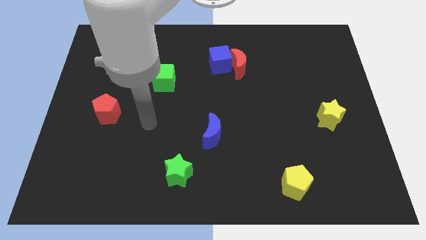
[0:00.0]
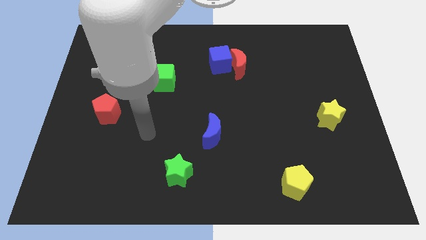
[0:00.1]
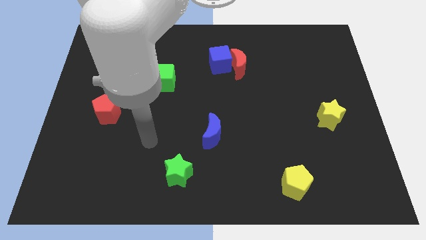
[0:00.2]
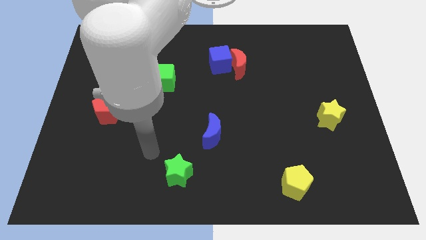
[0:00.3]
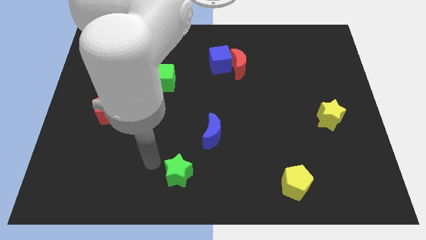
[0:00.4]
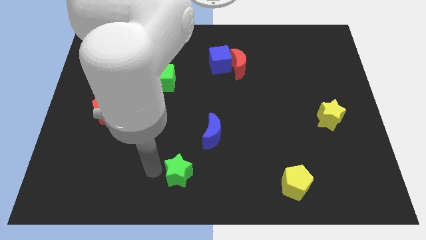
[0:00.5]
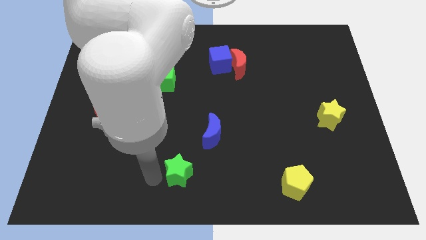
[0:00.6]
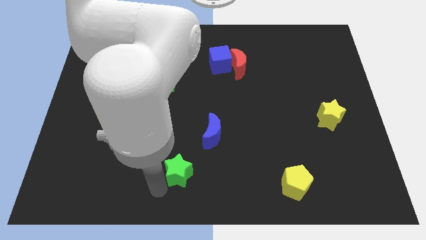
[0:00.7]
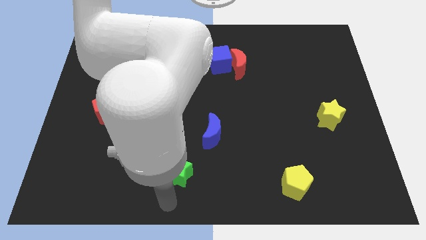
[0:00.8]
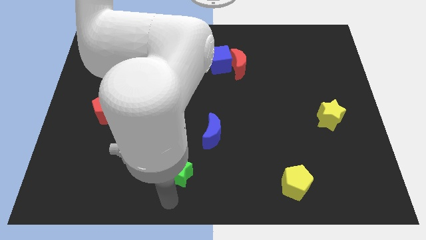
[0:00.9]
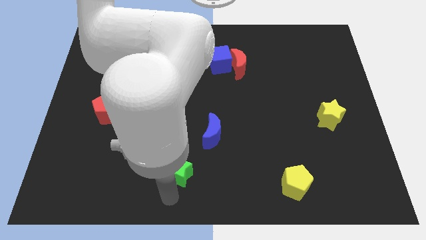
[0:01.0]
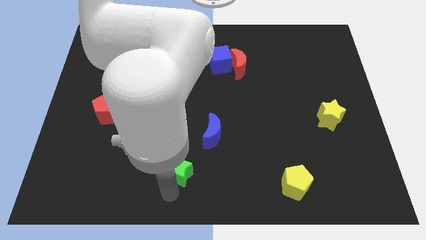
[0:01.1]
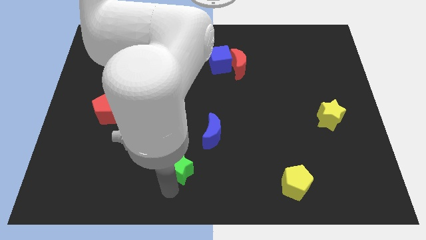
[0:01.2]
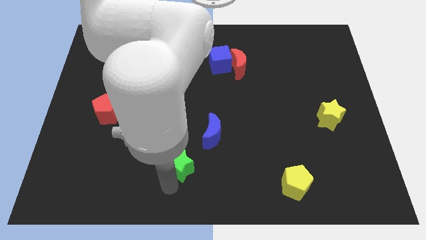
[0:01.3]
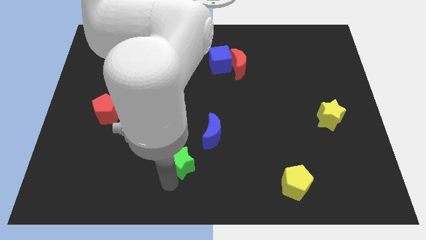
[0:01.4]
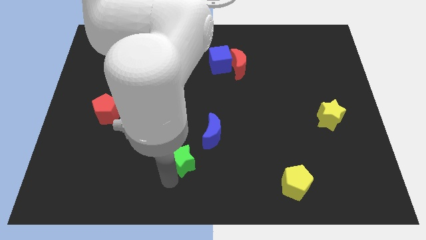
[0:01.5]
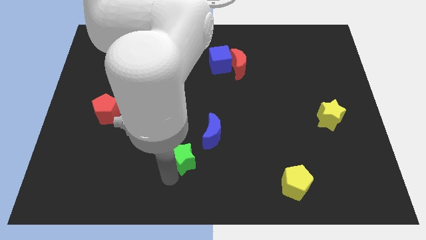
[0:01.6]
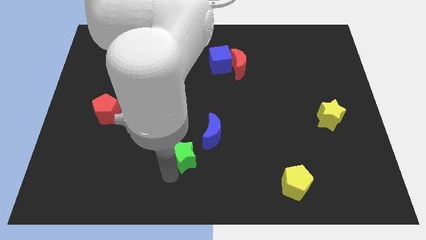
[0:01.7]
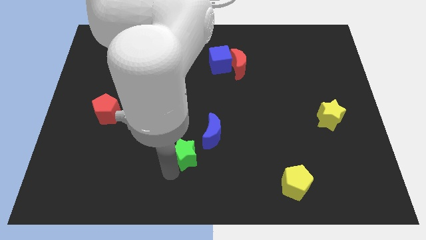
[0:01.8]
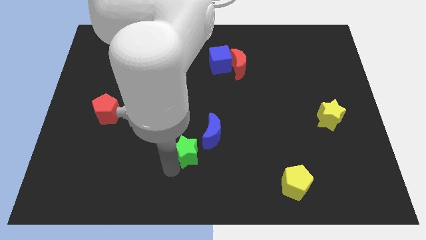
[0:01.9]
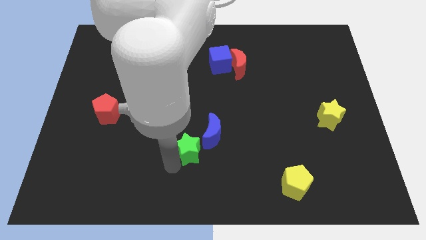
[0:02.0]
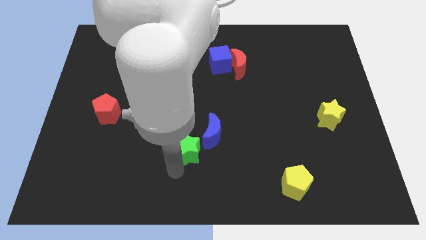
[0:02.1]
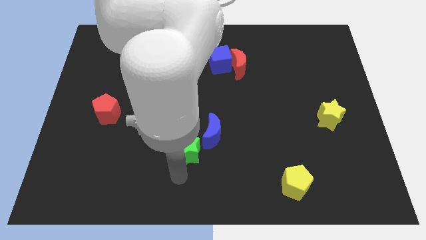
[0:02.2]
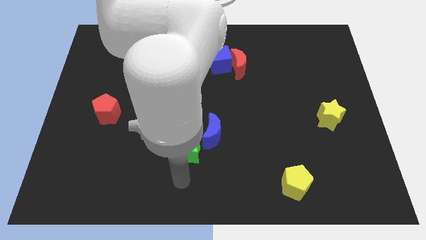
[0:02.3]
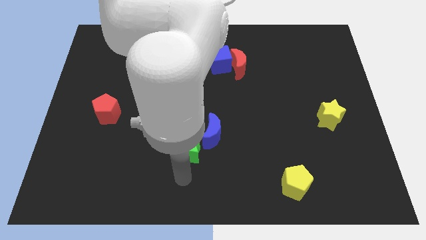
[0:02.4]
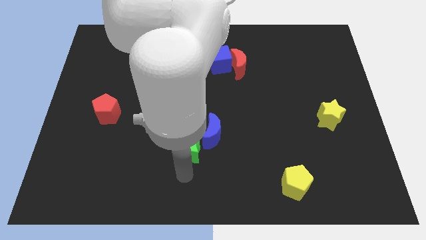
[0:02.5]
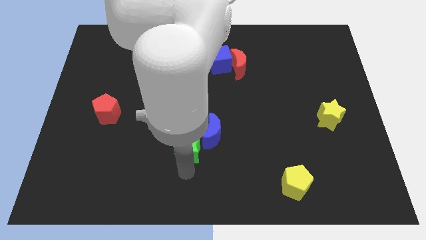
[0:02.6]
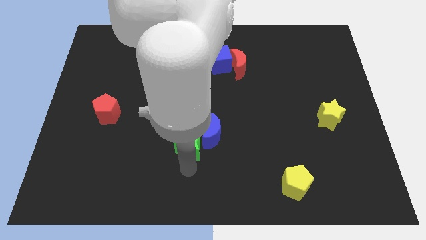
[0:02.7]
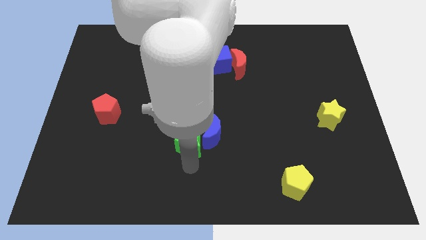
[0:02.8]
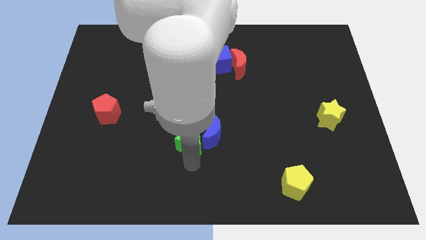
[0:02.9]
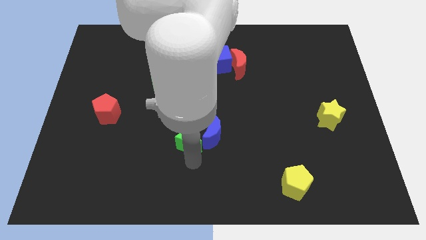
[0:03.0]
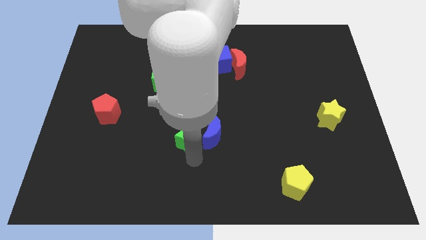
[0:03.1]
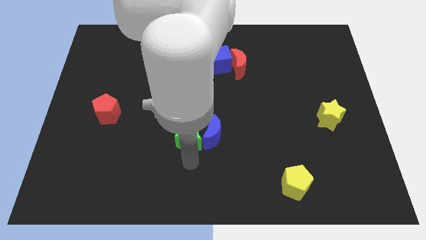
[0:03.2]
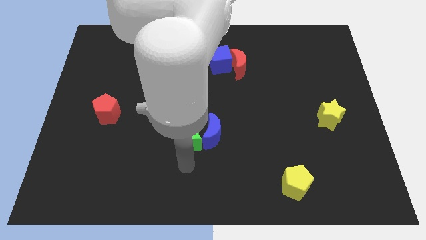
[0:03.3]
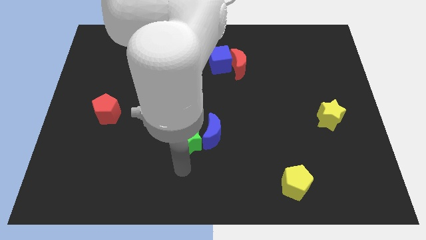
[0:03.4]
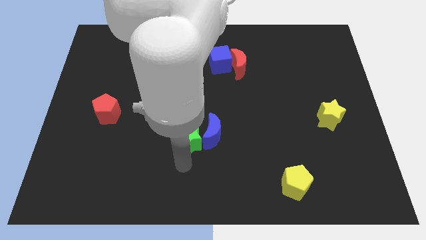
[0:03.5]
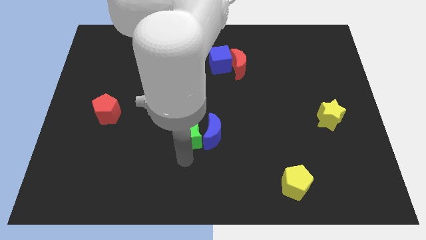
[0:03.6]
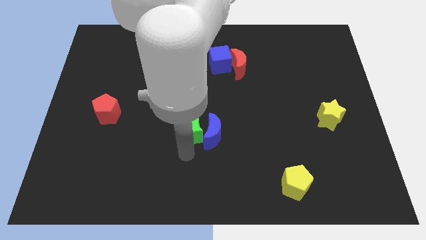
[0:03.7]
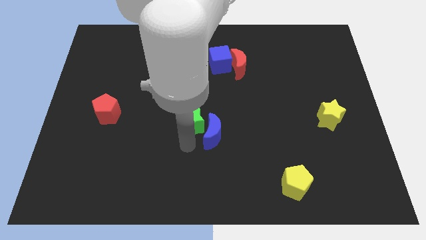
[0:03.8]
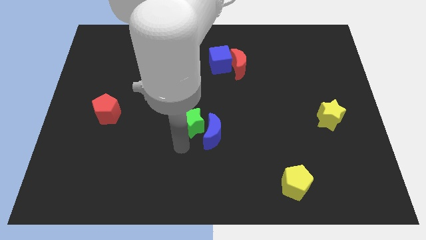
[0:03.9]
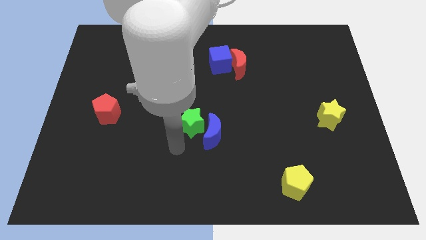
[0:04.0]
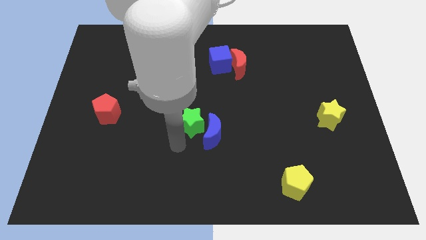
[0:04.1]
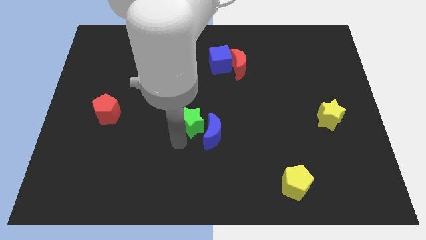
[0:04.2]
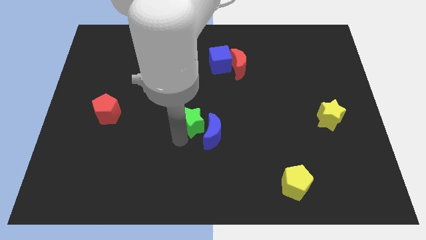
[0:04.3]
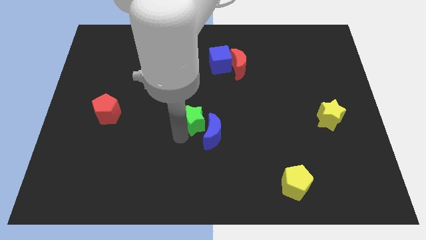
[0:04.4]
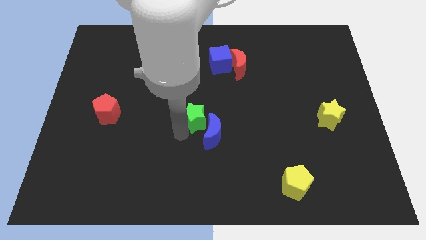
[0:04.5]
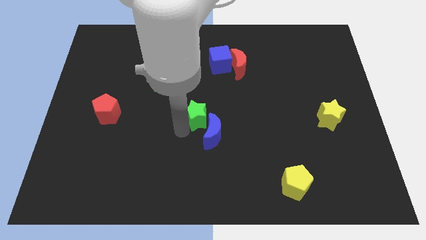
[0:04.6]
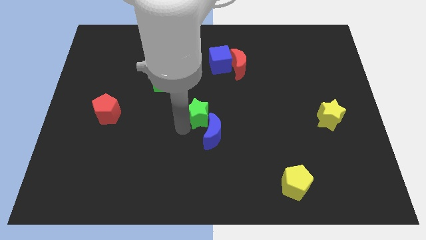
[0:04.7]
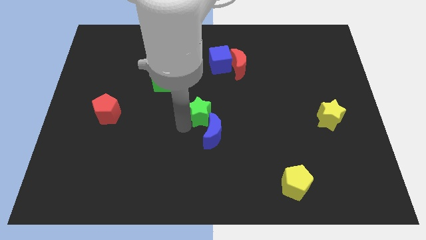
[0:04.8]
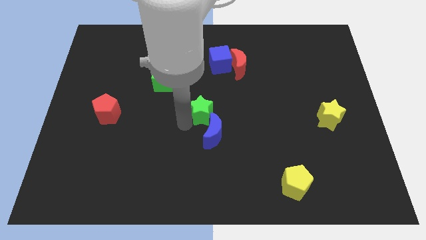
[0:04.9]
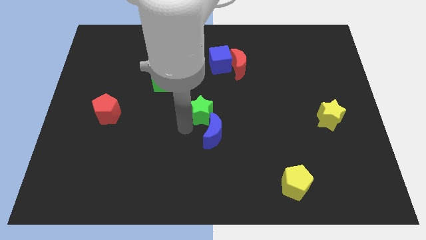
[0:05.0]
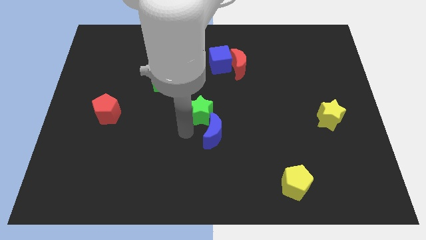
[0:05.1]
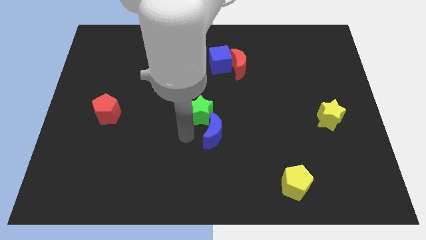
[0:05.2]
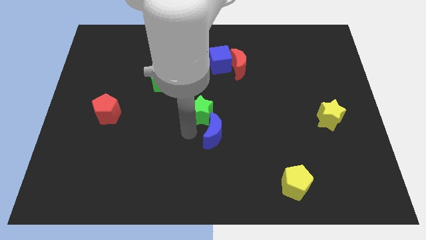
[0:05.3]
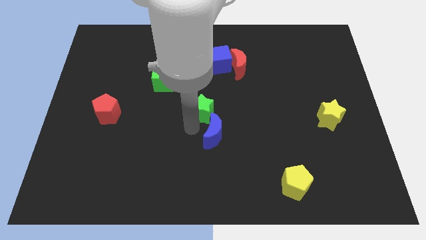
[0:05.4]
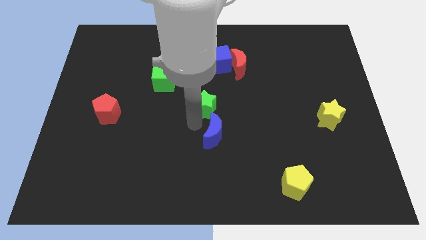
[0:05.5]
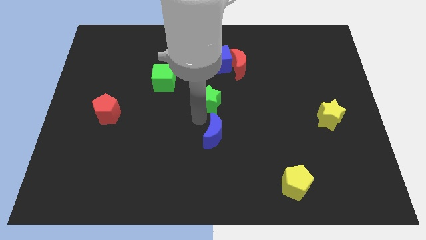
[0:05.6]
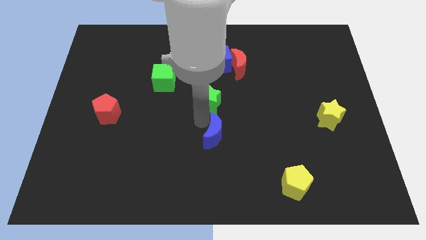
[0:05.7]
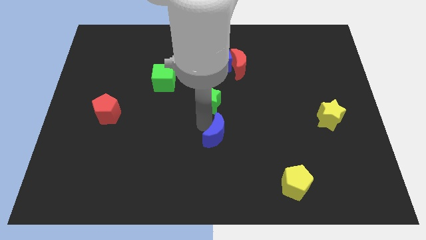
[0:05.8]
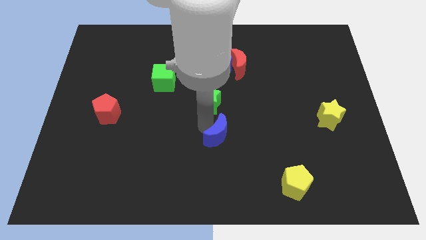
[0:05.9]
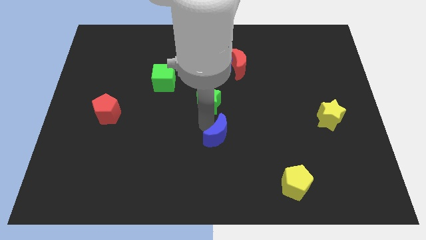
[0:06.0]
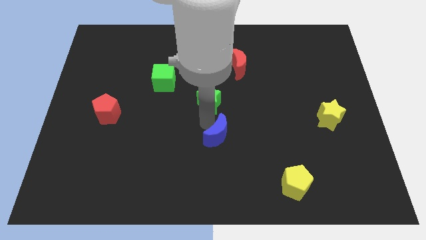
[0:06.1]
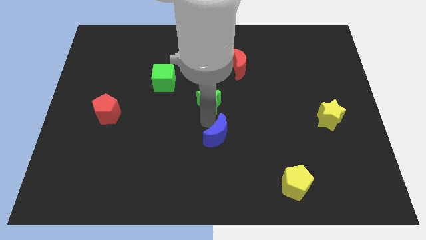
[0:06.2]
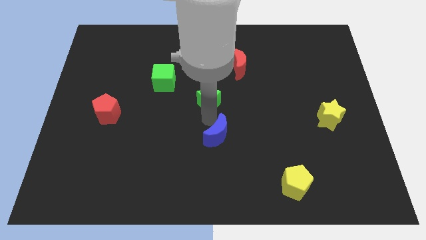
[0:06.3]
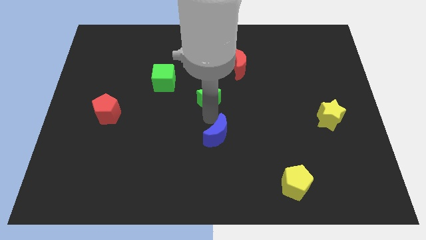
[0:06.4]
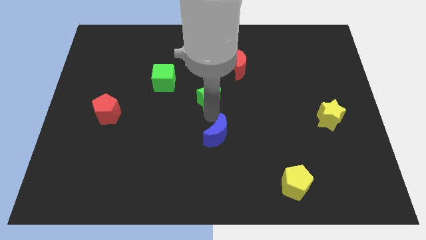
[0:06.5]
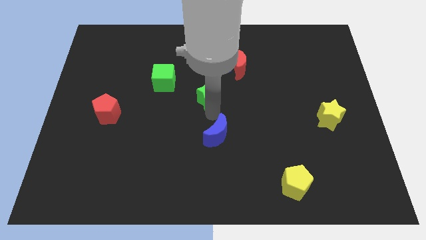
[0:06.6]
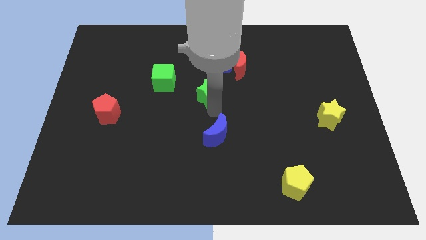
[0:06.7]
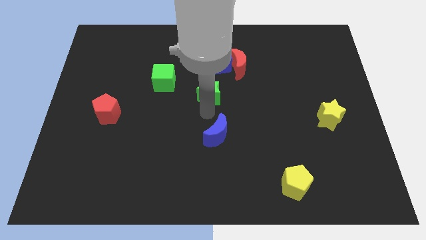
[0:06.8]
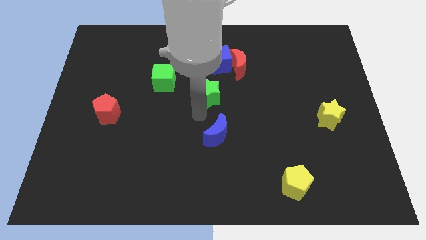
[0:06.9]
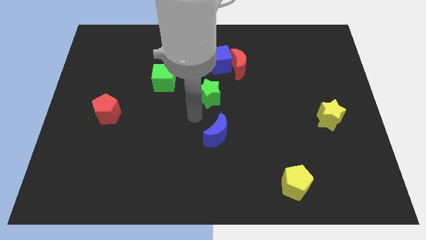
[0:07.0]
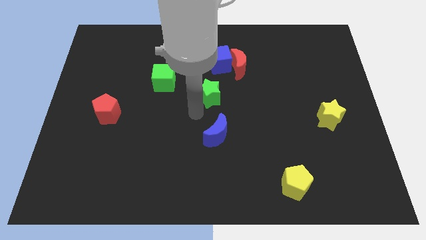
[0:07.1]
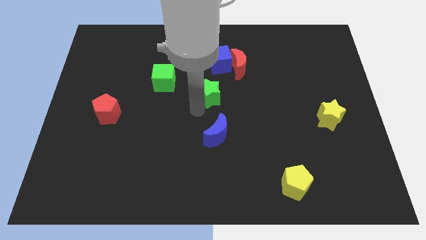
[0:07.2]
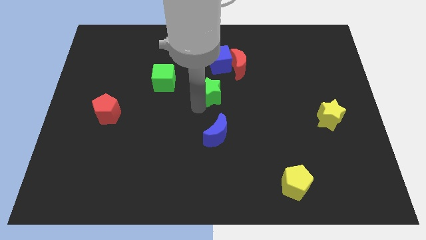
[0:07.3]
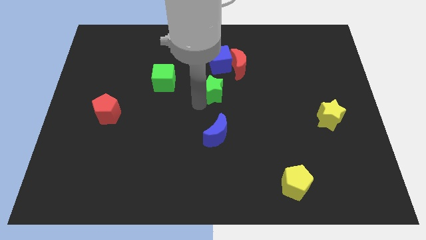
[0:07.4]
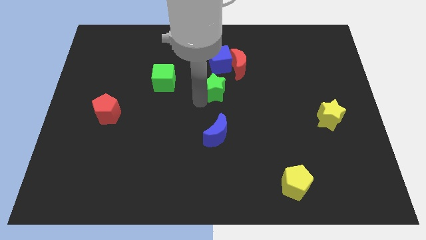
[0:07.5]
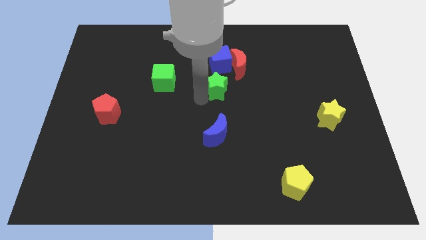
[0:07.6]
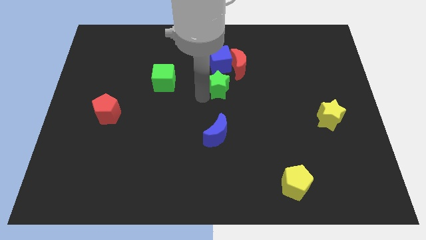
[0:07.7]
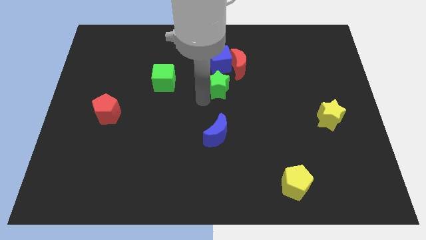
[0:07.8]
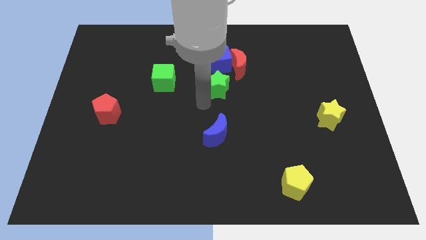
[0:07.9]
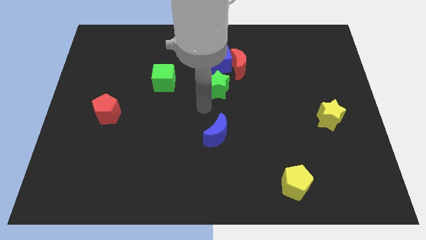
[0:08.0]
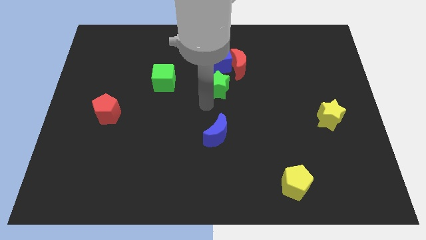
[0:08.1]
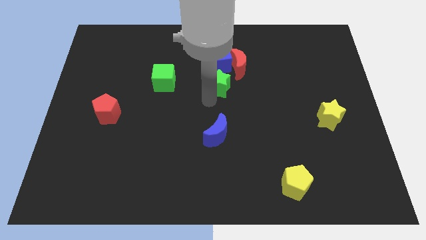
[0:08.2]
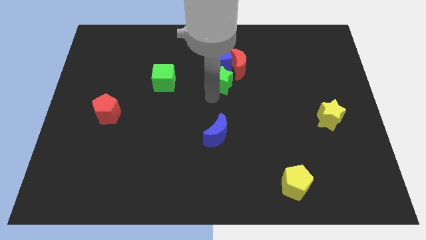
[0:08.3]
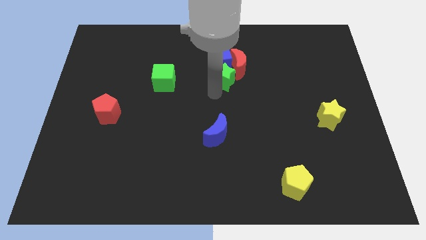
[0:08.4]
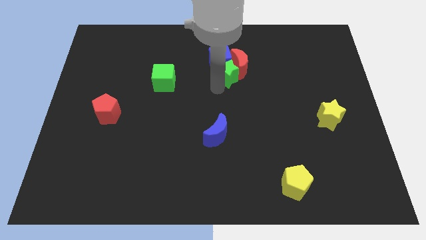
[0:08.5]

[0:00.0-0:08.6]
put the green star towards the red moon
